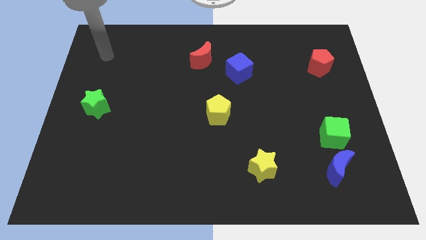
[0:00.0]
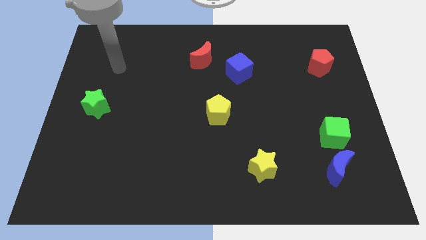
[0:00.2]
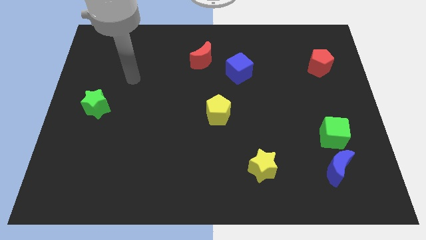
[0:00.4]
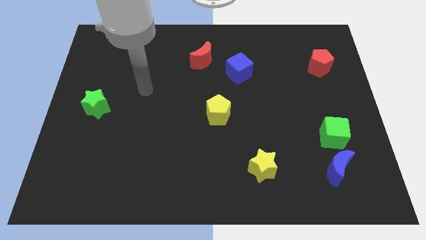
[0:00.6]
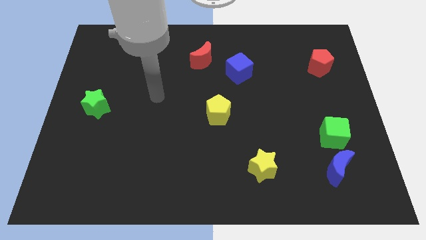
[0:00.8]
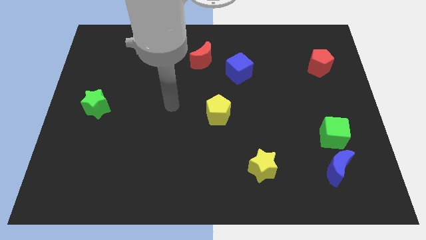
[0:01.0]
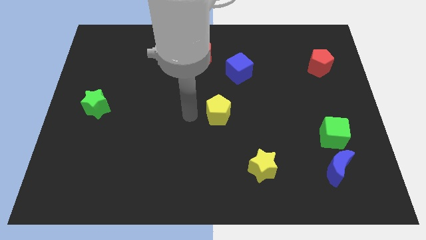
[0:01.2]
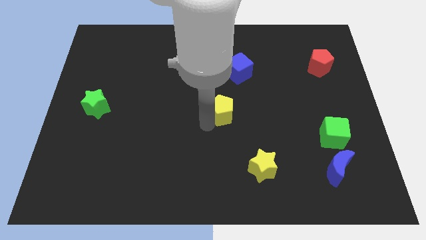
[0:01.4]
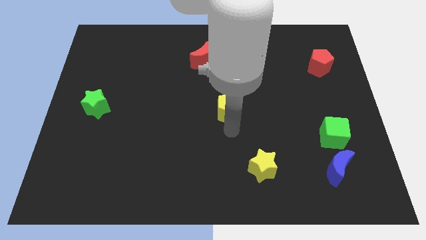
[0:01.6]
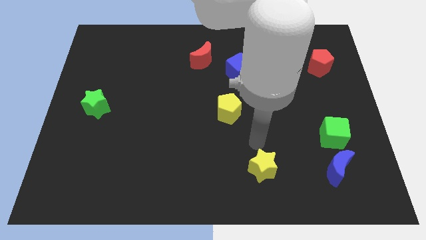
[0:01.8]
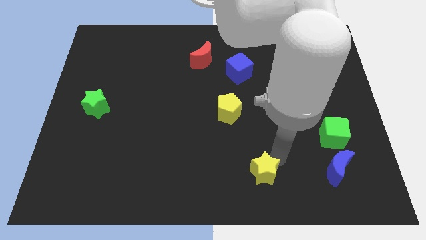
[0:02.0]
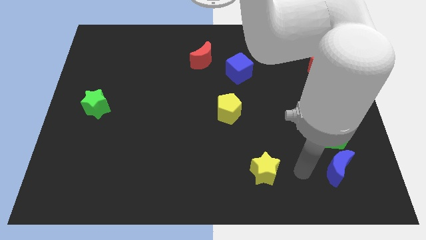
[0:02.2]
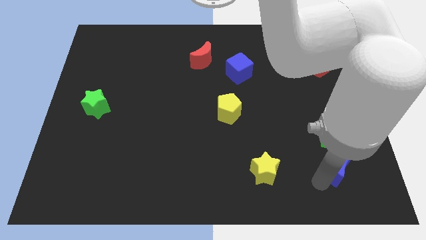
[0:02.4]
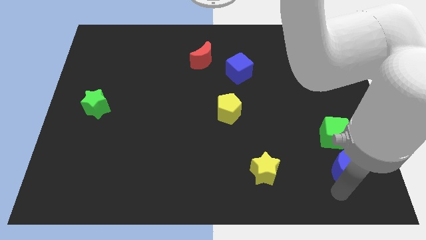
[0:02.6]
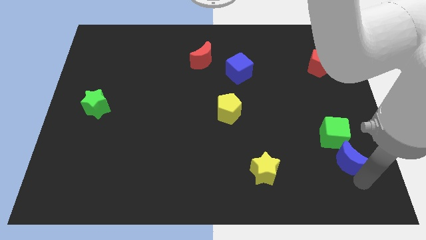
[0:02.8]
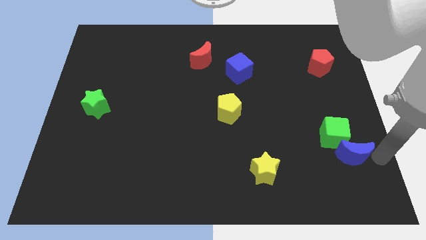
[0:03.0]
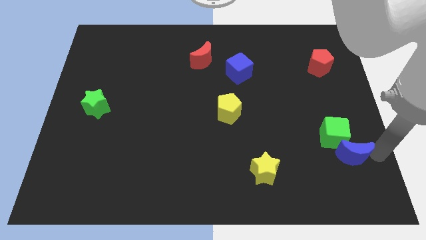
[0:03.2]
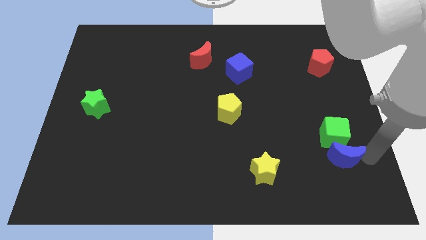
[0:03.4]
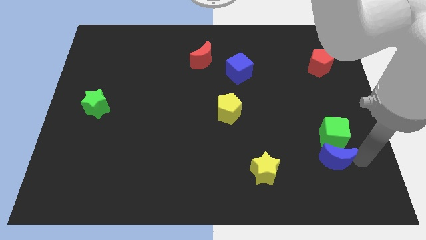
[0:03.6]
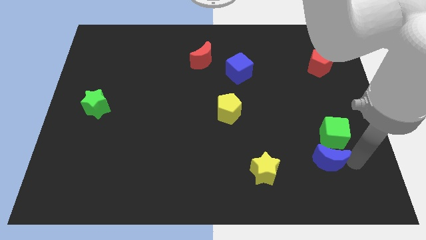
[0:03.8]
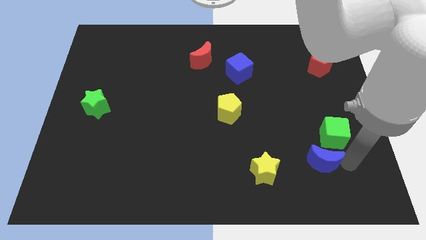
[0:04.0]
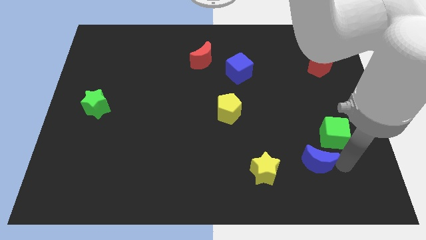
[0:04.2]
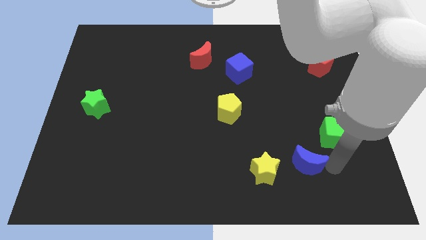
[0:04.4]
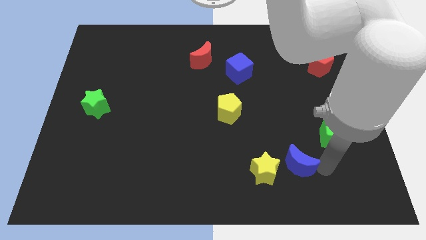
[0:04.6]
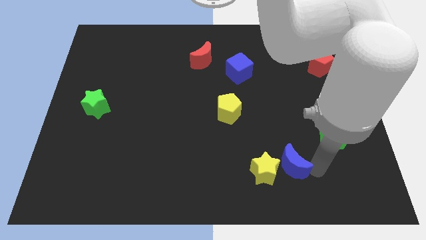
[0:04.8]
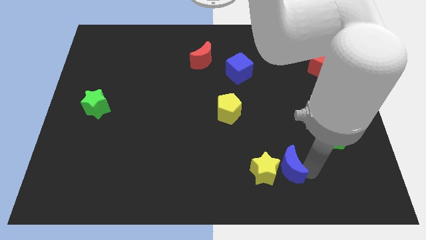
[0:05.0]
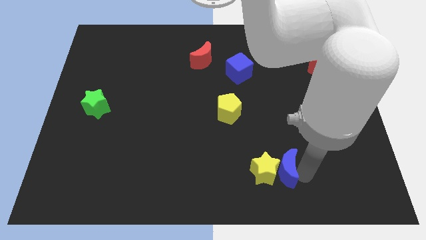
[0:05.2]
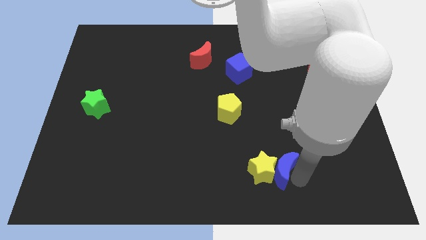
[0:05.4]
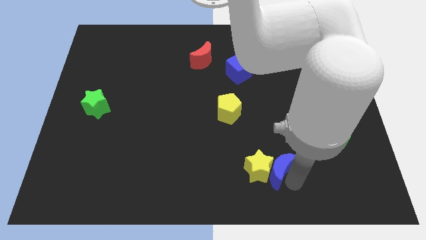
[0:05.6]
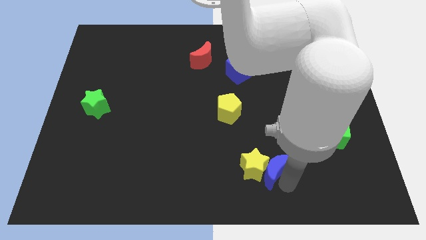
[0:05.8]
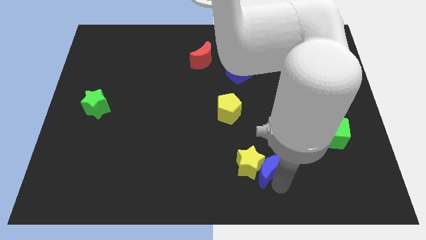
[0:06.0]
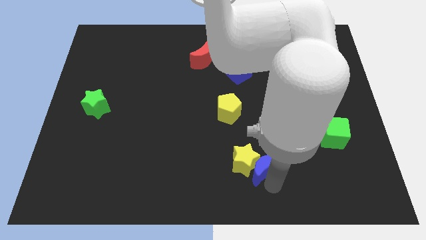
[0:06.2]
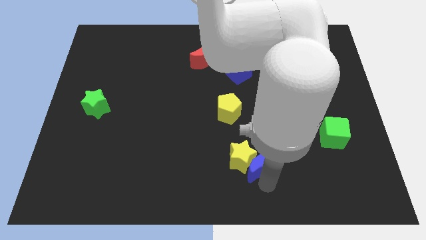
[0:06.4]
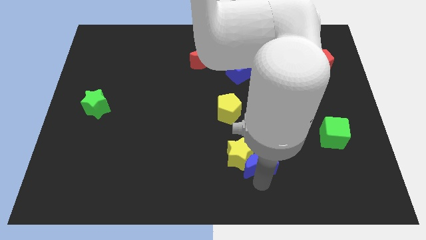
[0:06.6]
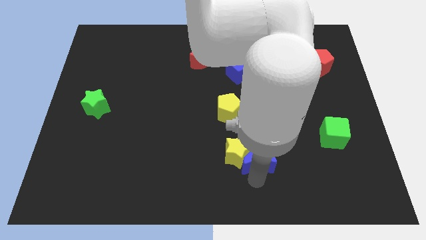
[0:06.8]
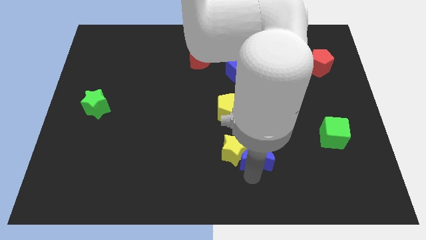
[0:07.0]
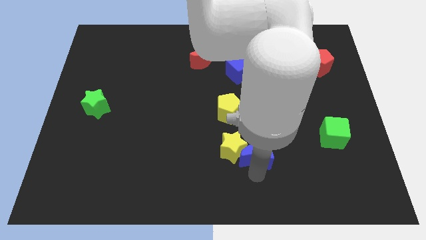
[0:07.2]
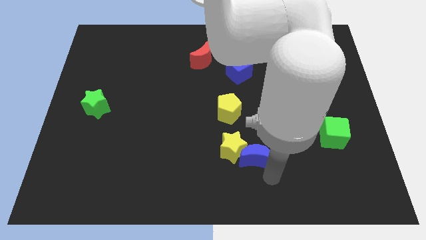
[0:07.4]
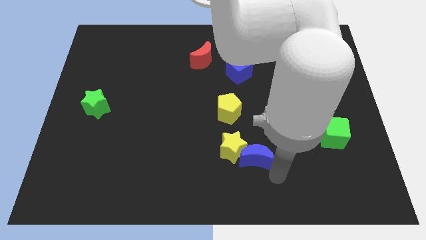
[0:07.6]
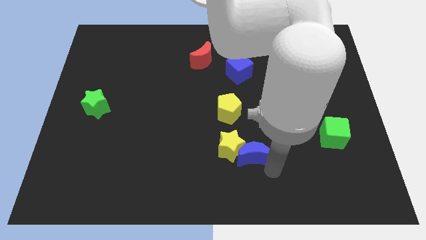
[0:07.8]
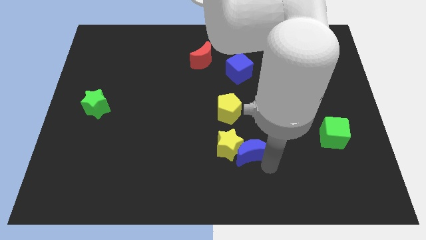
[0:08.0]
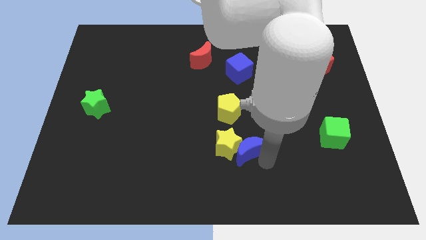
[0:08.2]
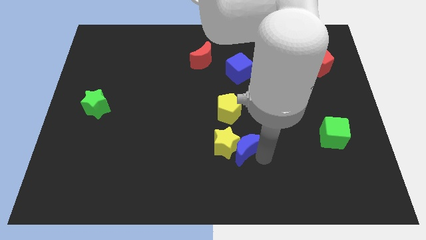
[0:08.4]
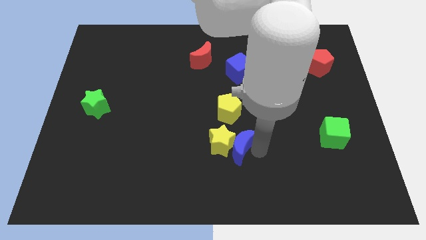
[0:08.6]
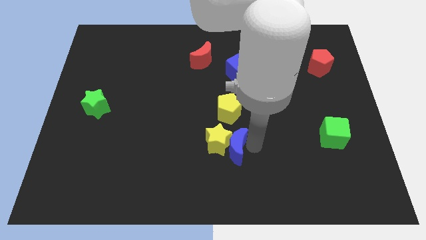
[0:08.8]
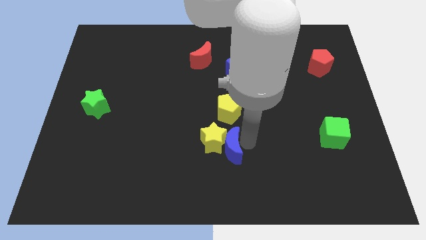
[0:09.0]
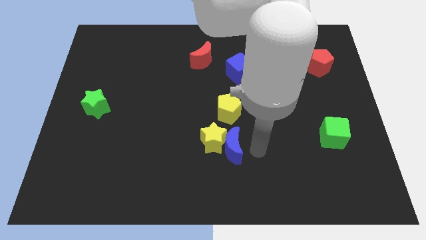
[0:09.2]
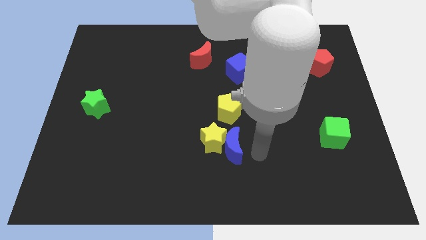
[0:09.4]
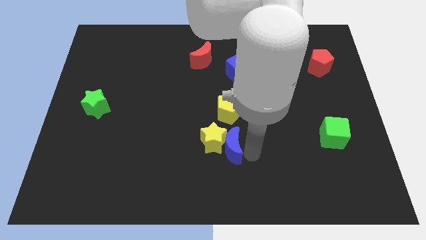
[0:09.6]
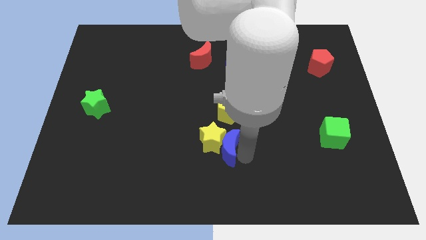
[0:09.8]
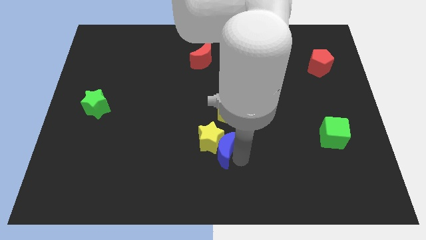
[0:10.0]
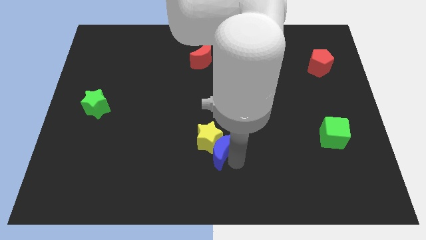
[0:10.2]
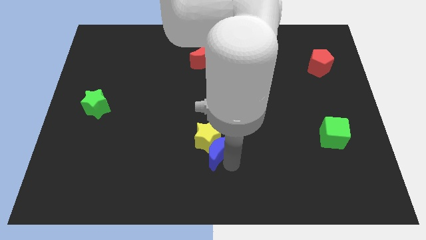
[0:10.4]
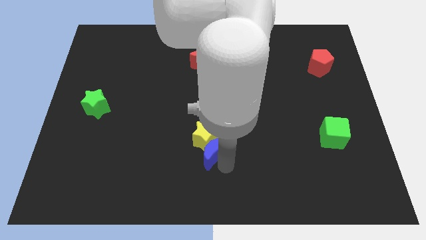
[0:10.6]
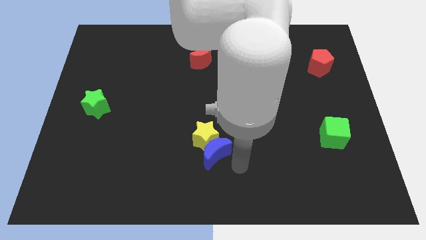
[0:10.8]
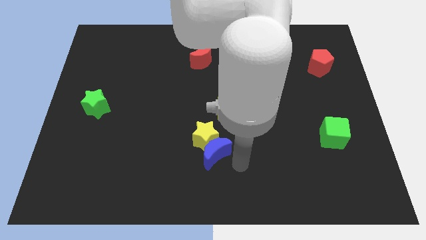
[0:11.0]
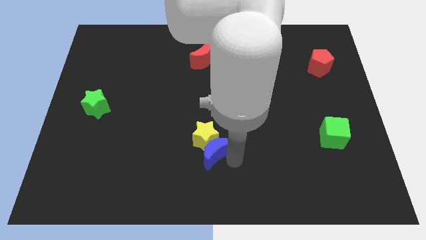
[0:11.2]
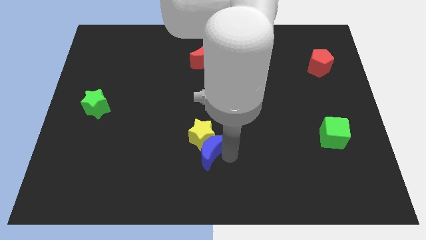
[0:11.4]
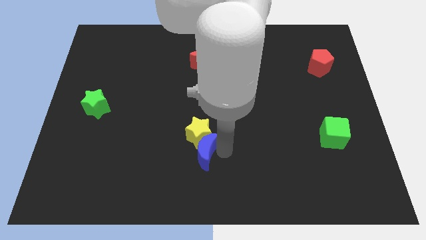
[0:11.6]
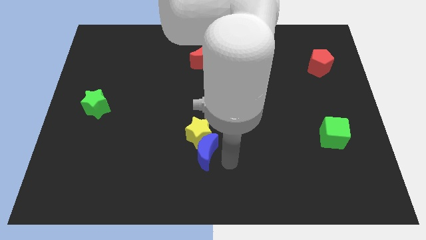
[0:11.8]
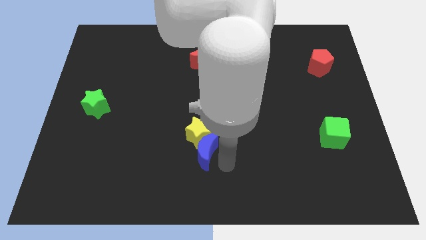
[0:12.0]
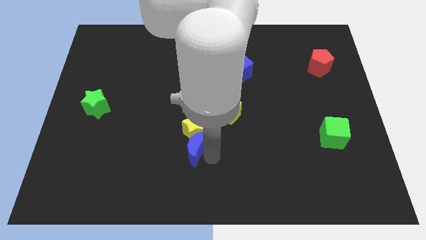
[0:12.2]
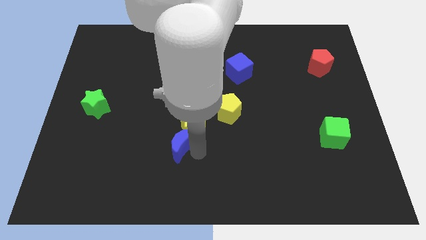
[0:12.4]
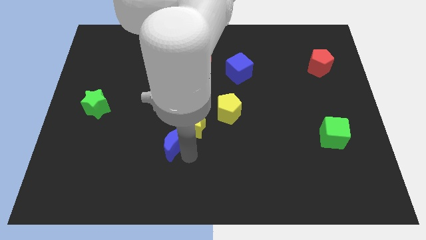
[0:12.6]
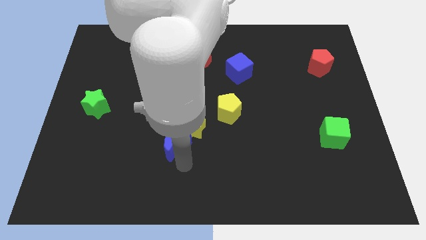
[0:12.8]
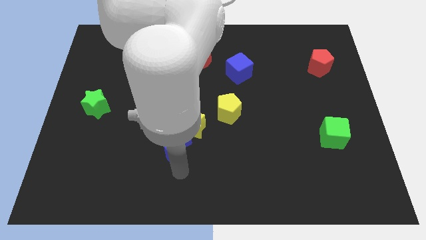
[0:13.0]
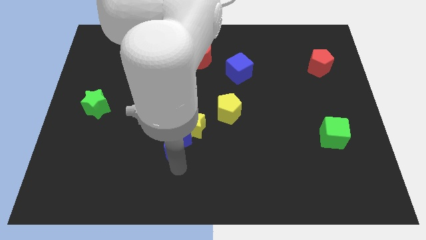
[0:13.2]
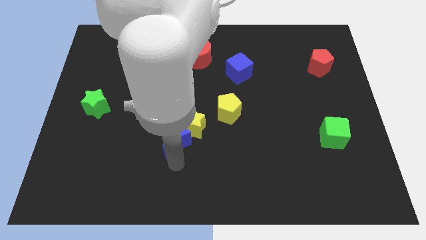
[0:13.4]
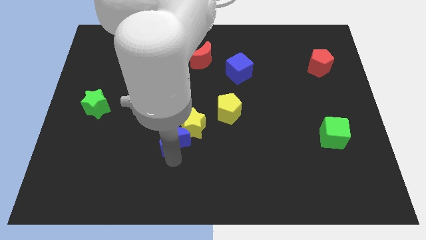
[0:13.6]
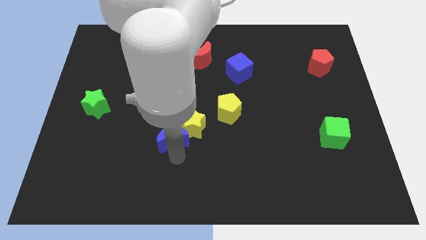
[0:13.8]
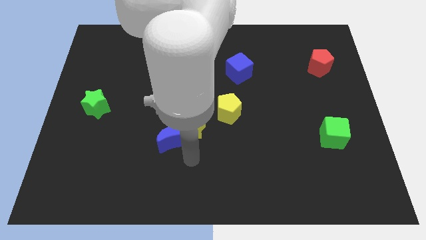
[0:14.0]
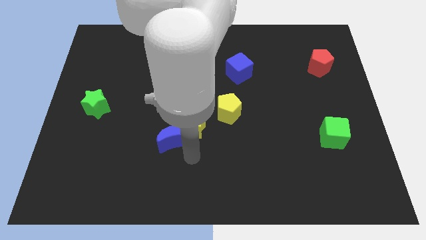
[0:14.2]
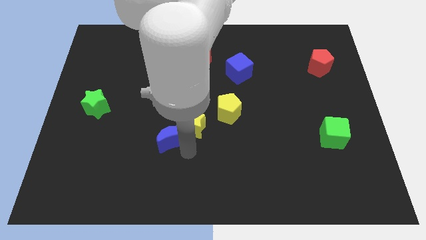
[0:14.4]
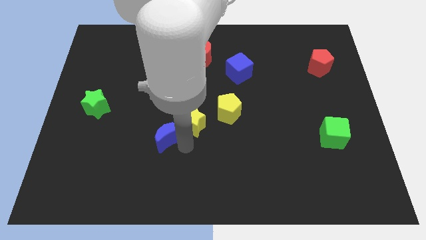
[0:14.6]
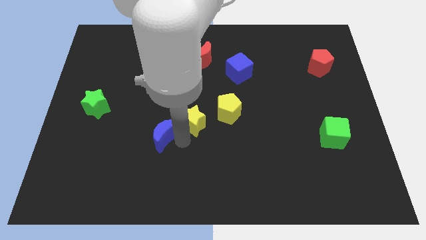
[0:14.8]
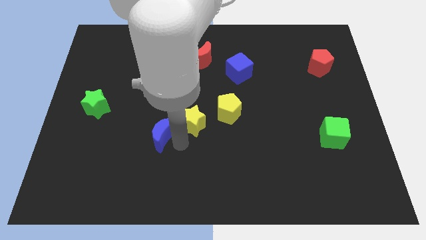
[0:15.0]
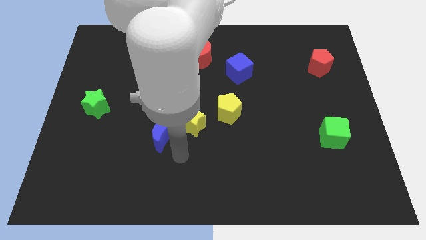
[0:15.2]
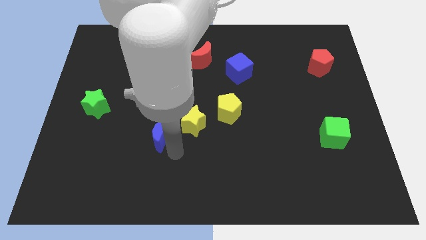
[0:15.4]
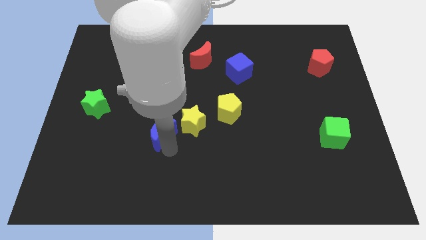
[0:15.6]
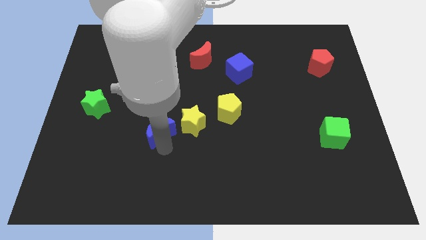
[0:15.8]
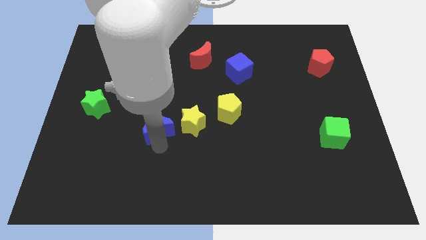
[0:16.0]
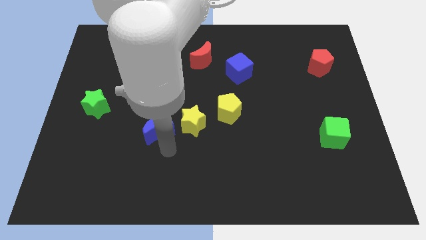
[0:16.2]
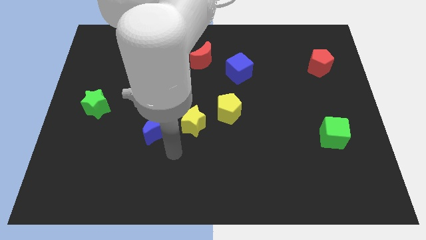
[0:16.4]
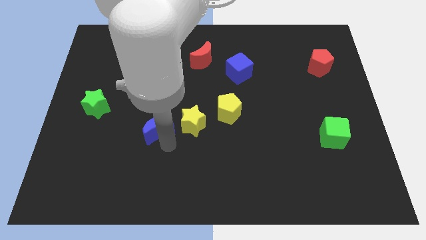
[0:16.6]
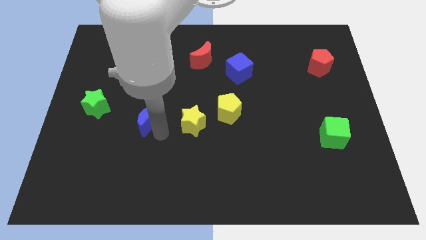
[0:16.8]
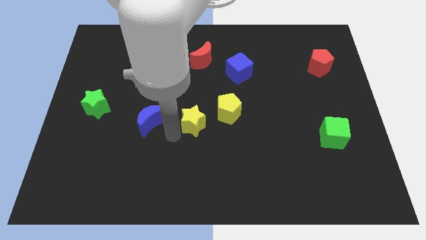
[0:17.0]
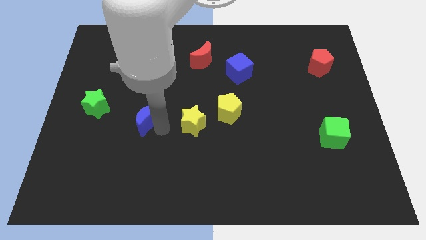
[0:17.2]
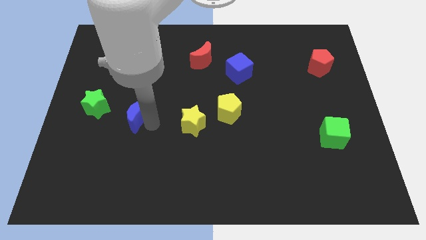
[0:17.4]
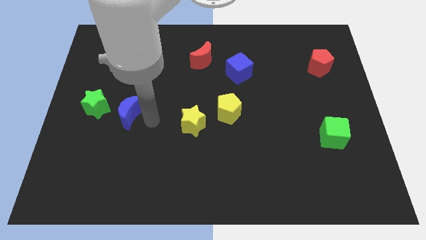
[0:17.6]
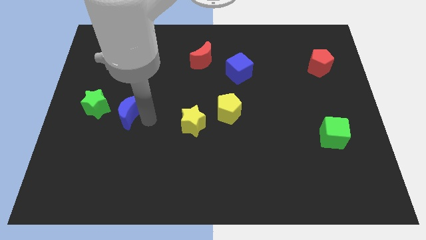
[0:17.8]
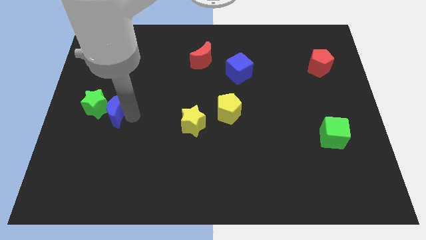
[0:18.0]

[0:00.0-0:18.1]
push the blue moon next to the green star
